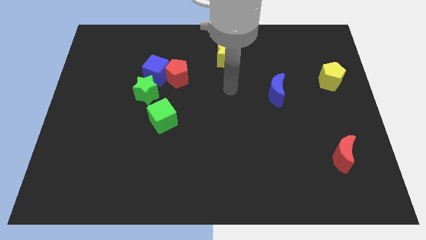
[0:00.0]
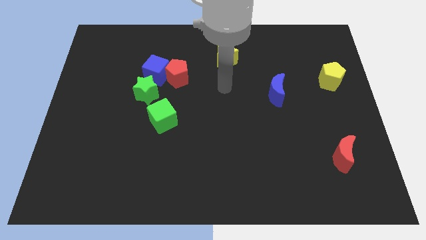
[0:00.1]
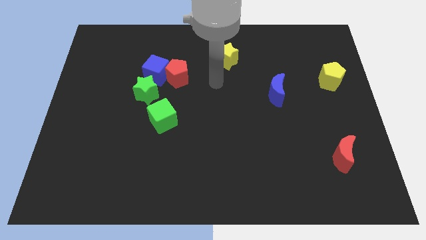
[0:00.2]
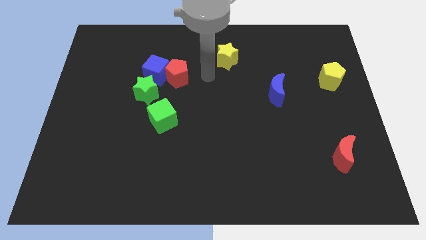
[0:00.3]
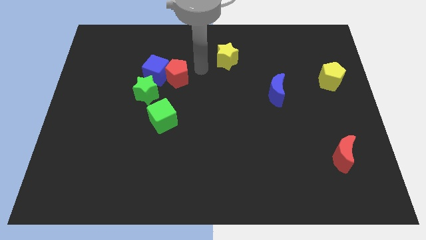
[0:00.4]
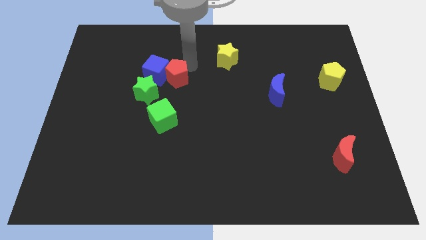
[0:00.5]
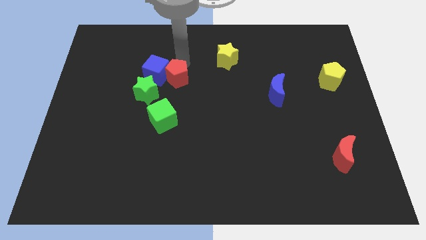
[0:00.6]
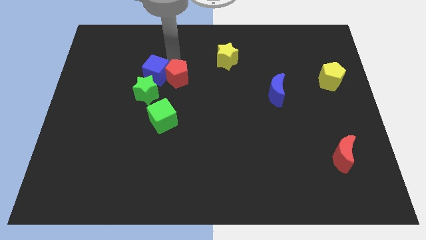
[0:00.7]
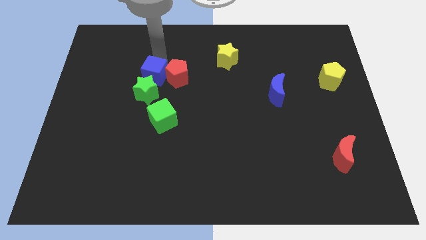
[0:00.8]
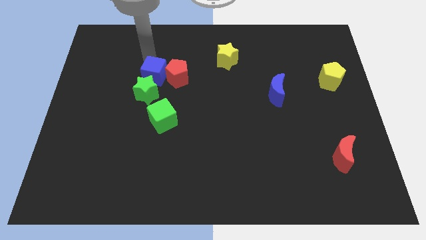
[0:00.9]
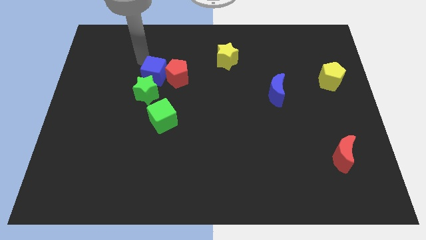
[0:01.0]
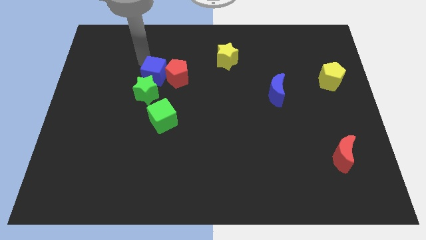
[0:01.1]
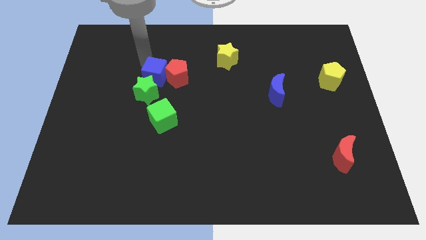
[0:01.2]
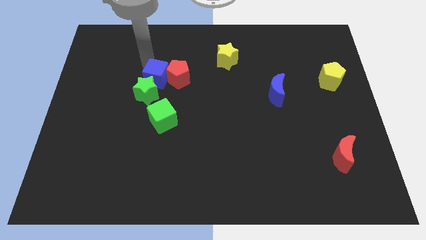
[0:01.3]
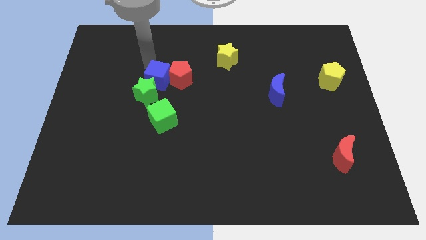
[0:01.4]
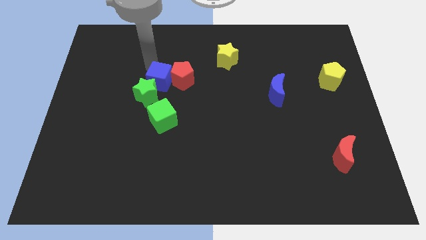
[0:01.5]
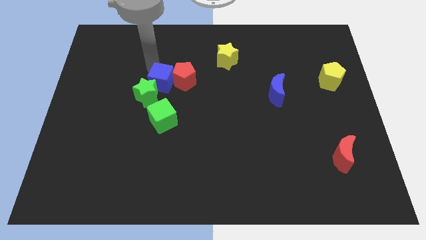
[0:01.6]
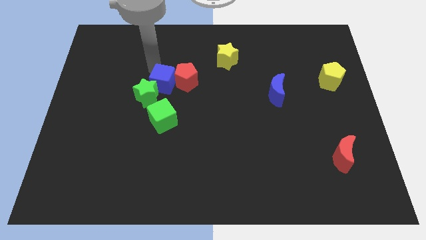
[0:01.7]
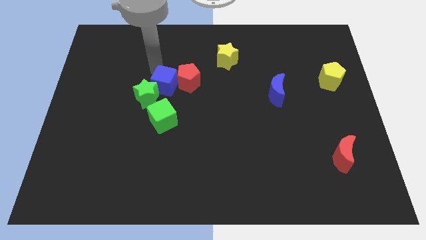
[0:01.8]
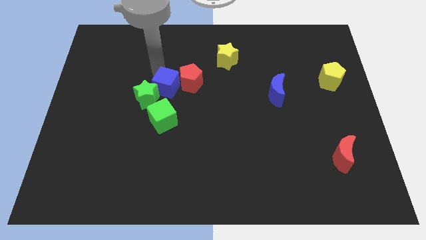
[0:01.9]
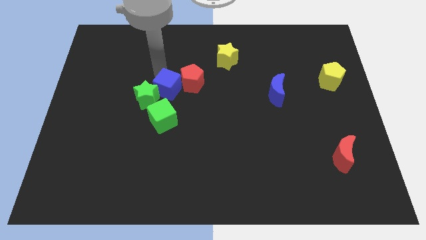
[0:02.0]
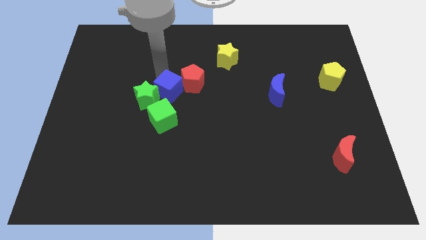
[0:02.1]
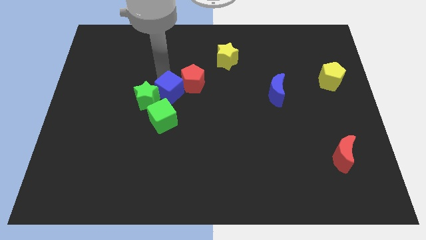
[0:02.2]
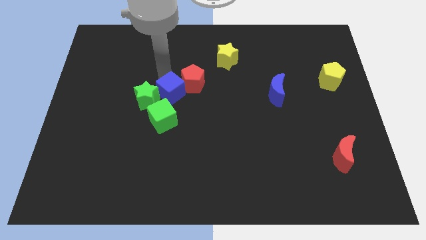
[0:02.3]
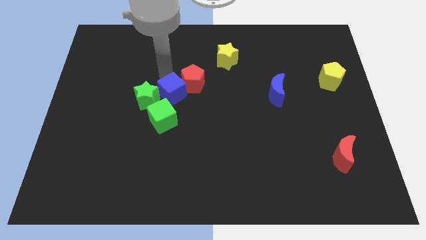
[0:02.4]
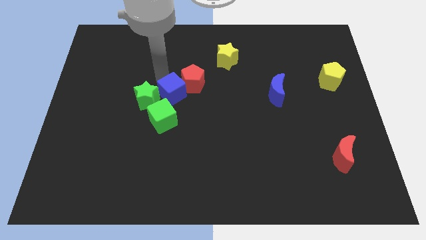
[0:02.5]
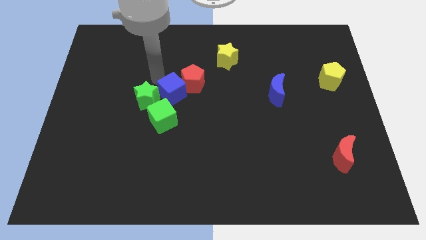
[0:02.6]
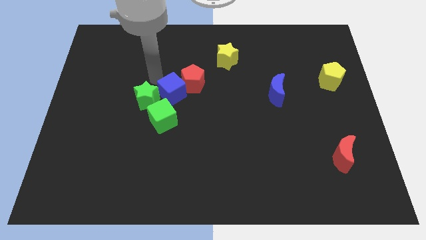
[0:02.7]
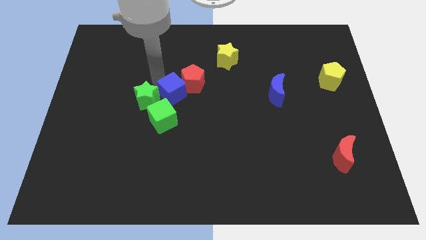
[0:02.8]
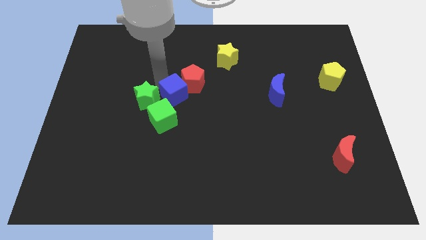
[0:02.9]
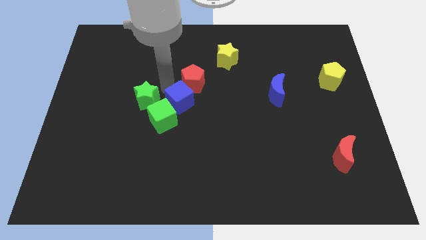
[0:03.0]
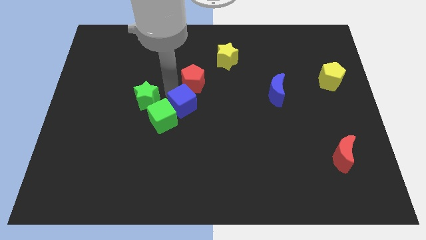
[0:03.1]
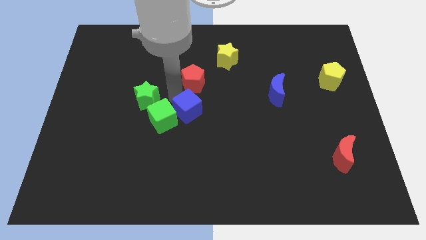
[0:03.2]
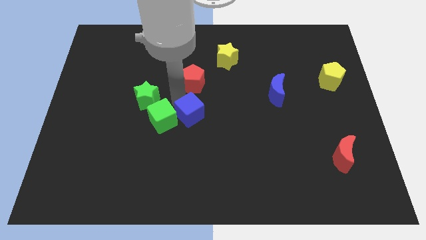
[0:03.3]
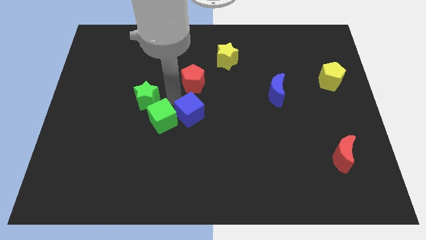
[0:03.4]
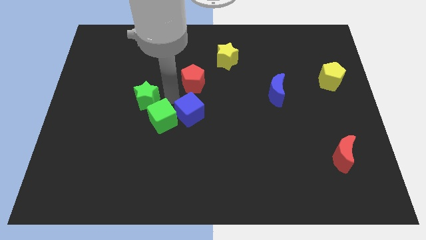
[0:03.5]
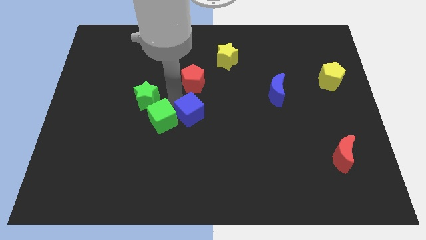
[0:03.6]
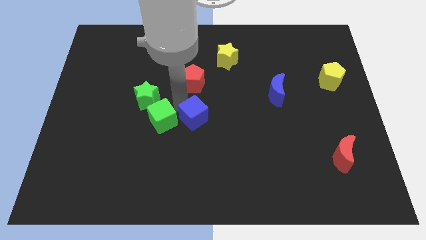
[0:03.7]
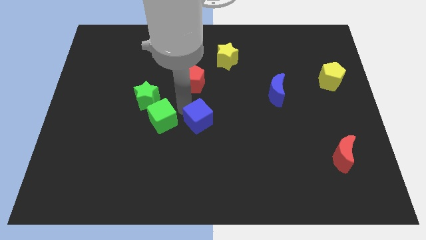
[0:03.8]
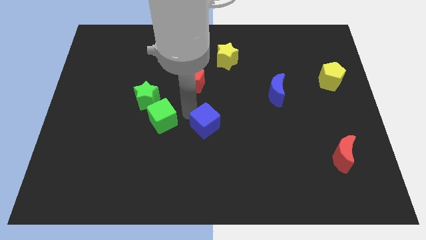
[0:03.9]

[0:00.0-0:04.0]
push the blue cube diagonally down and right

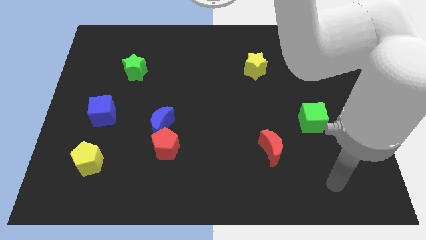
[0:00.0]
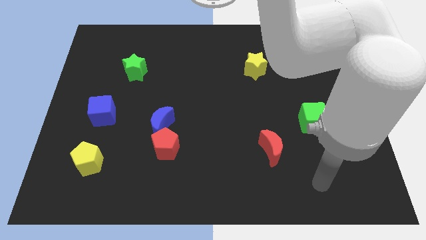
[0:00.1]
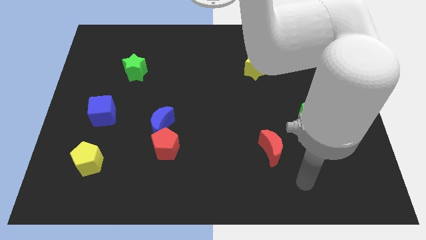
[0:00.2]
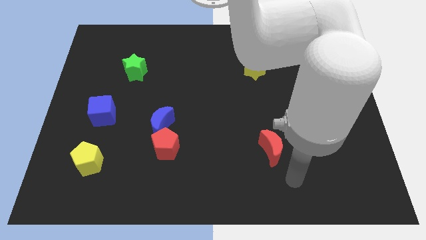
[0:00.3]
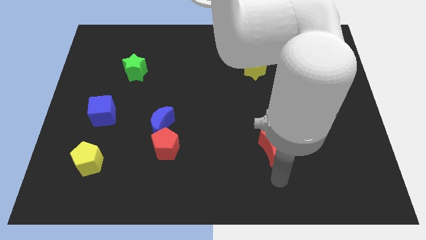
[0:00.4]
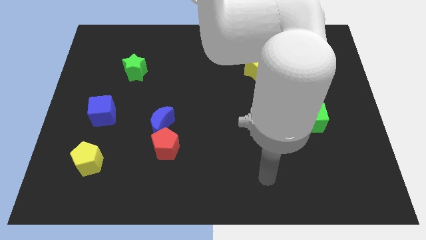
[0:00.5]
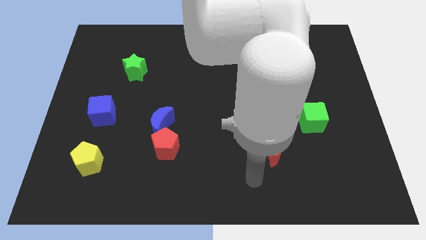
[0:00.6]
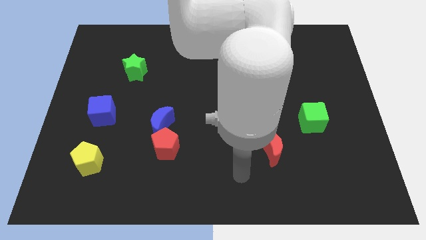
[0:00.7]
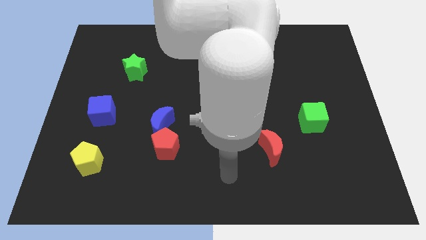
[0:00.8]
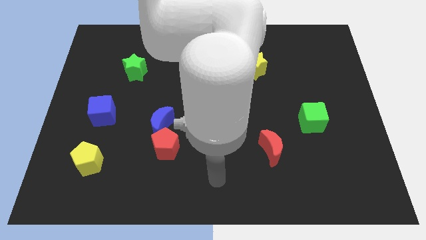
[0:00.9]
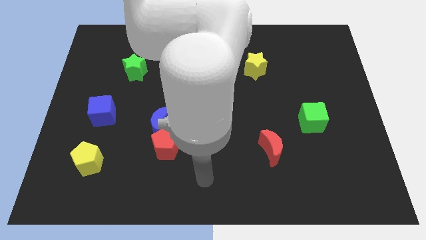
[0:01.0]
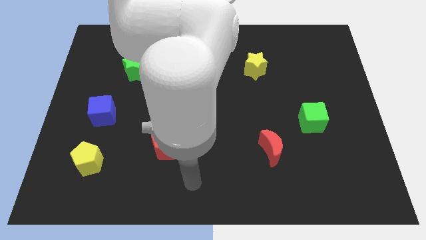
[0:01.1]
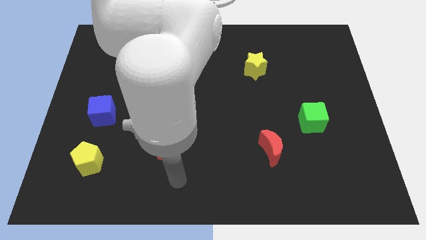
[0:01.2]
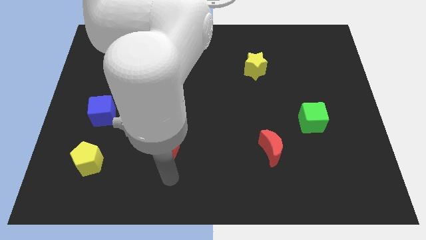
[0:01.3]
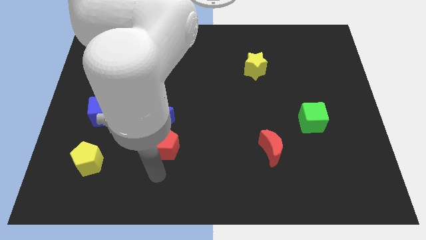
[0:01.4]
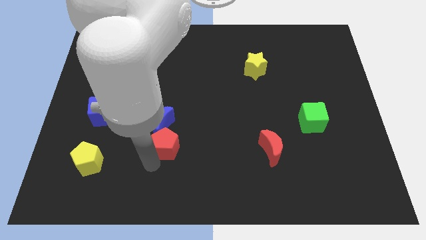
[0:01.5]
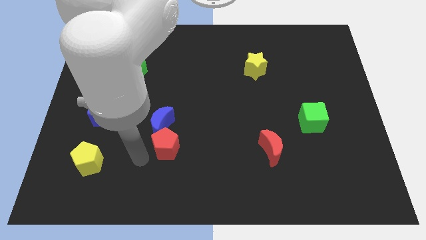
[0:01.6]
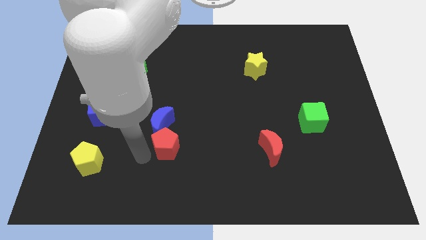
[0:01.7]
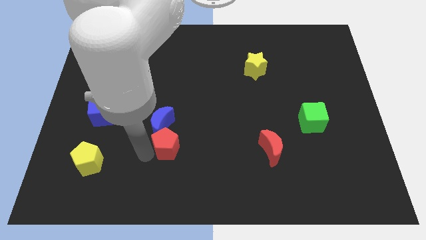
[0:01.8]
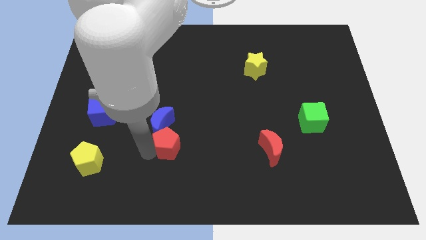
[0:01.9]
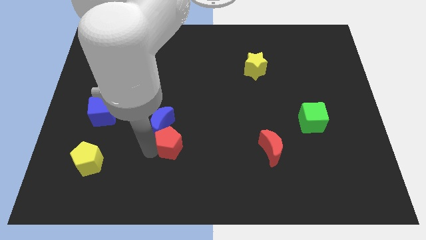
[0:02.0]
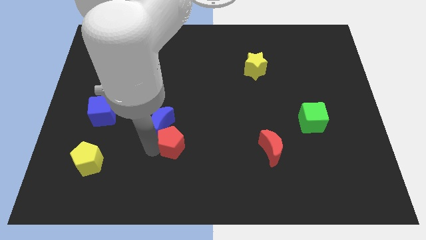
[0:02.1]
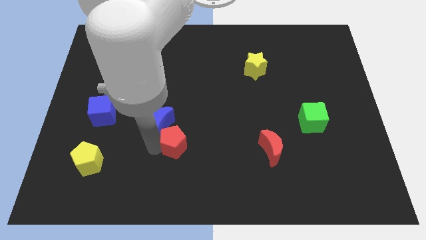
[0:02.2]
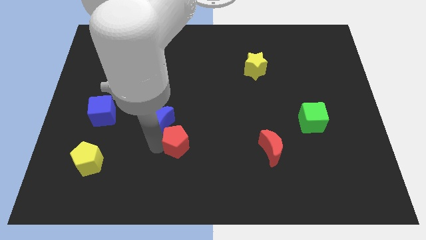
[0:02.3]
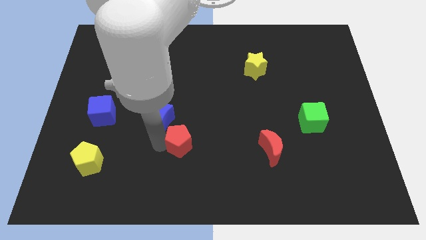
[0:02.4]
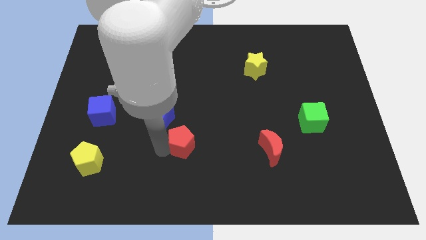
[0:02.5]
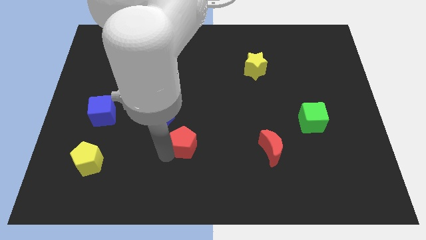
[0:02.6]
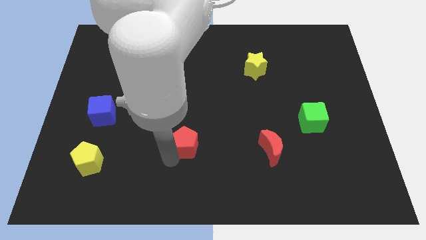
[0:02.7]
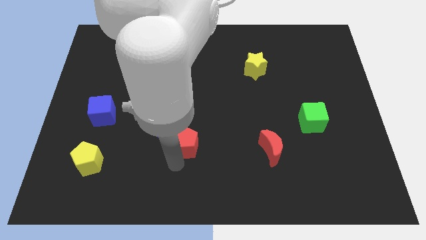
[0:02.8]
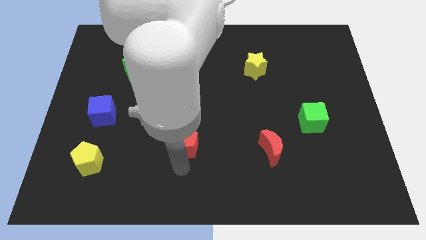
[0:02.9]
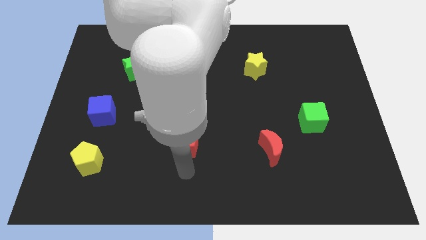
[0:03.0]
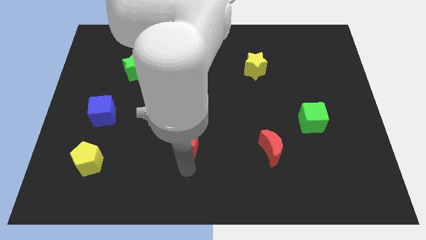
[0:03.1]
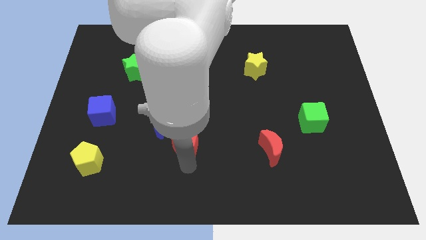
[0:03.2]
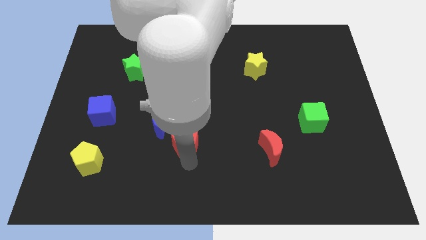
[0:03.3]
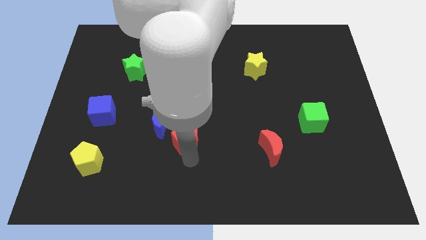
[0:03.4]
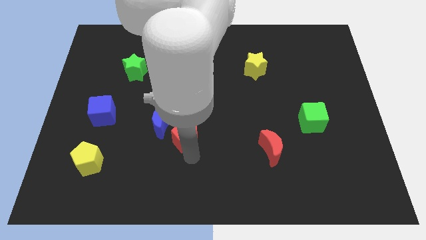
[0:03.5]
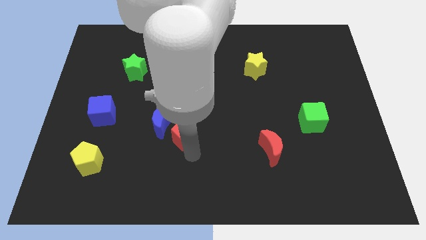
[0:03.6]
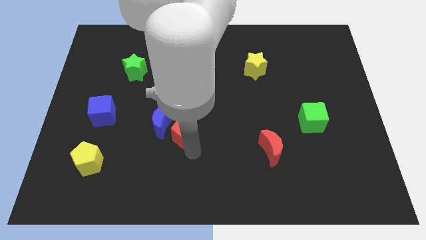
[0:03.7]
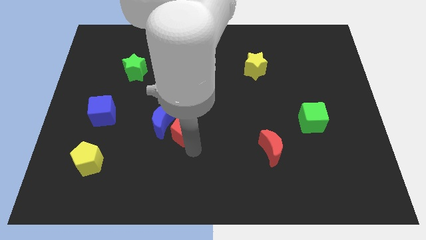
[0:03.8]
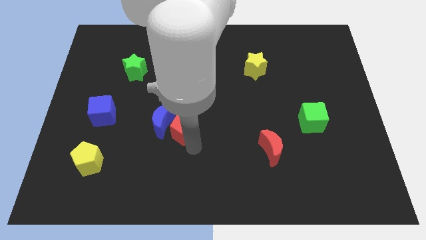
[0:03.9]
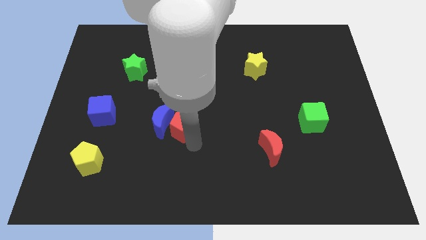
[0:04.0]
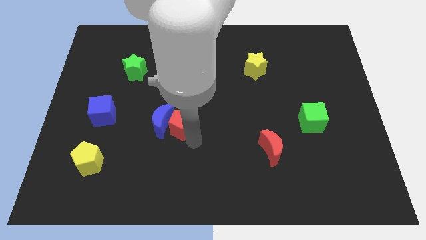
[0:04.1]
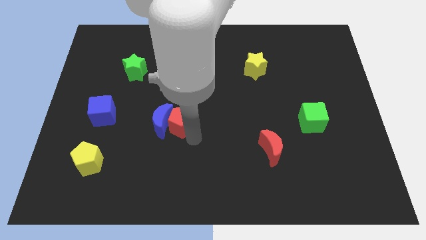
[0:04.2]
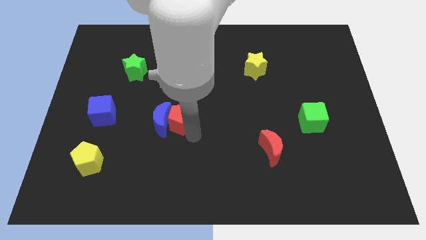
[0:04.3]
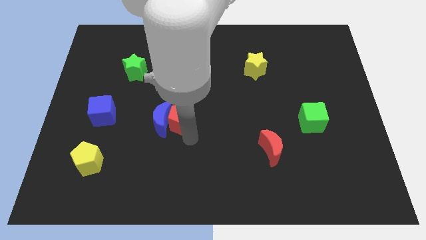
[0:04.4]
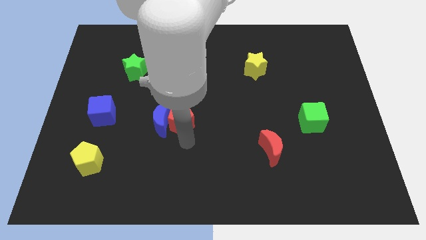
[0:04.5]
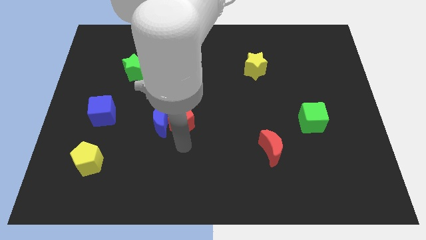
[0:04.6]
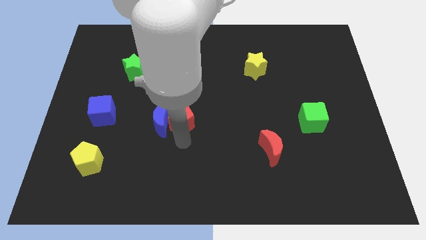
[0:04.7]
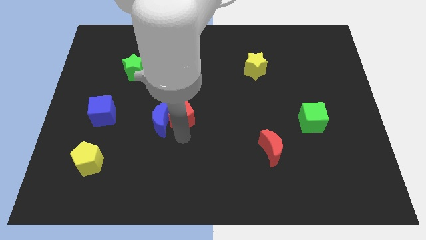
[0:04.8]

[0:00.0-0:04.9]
slightly slide the red pentagon upwards
